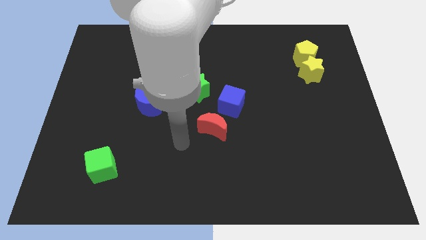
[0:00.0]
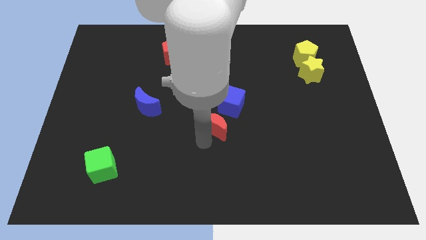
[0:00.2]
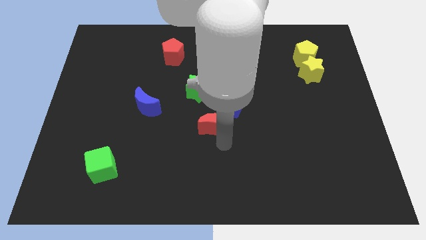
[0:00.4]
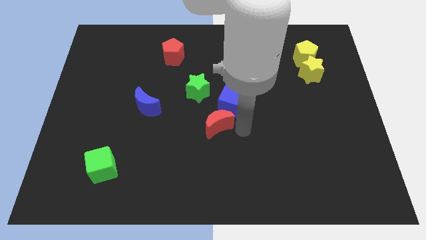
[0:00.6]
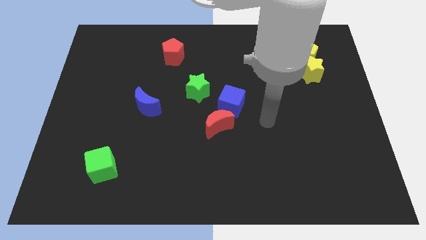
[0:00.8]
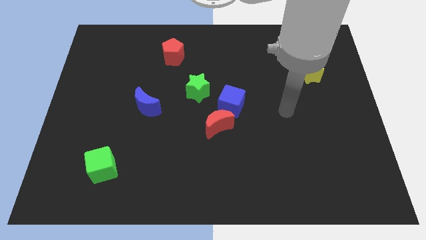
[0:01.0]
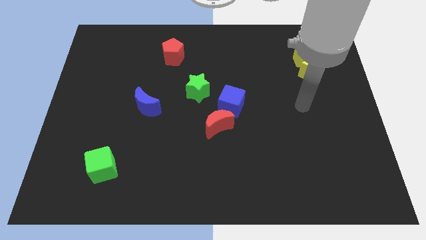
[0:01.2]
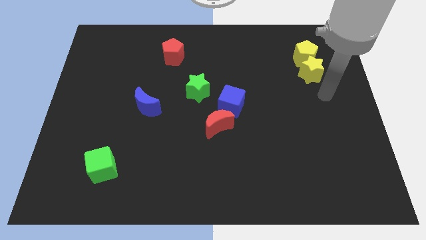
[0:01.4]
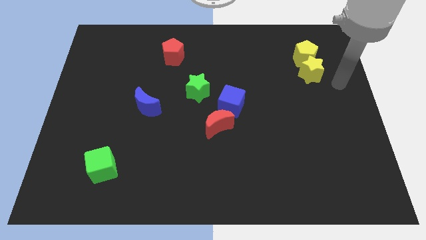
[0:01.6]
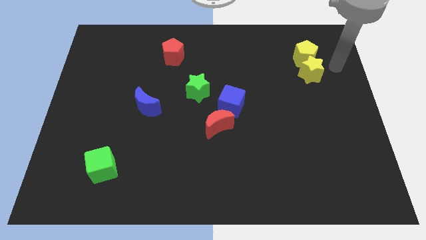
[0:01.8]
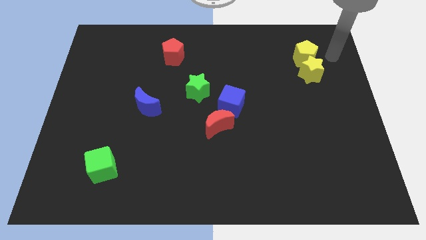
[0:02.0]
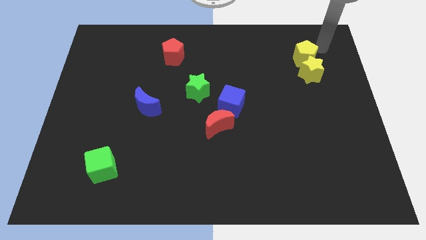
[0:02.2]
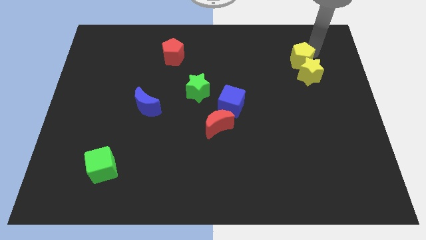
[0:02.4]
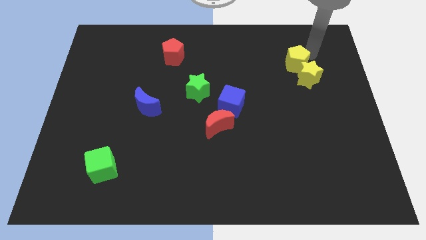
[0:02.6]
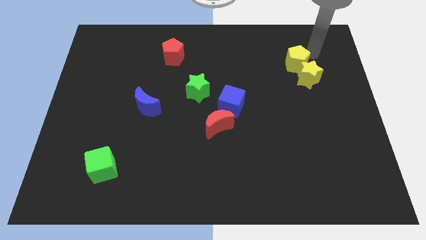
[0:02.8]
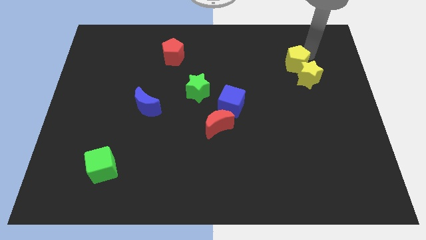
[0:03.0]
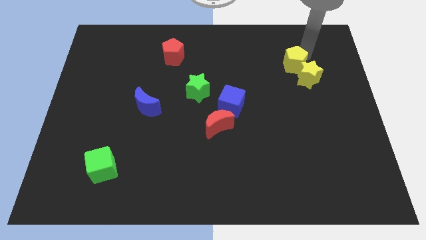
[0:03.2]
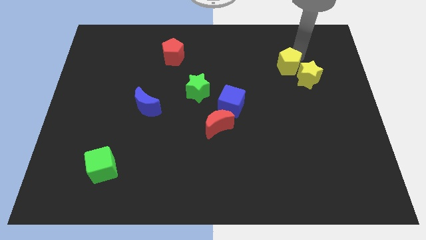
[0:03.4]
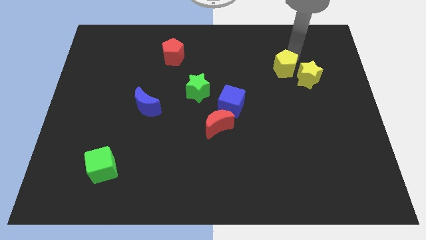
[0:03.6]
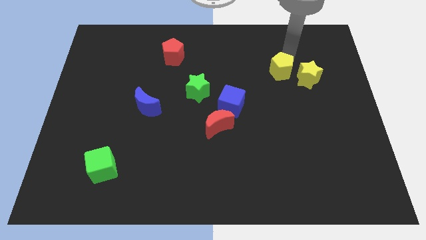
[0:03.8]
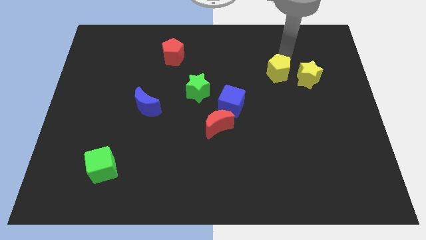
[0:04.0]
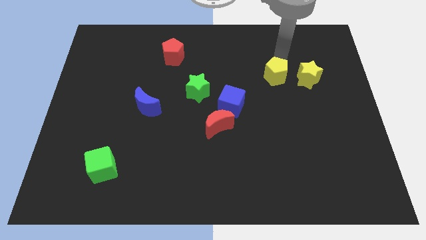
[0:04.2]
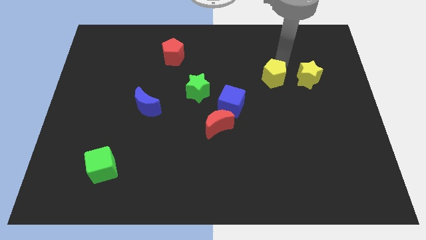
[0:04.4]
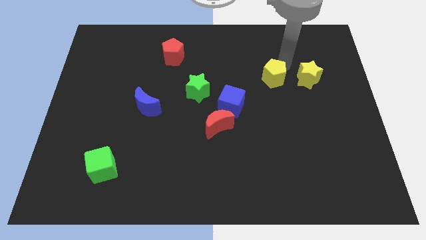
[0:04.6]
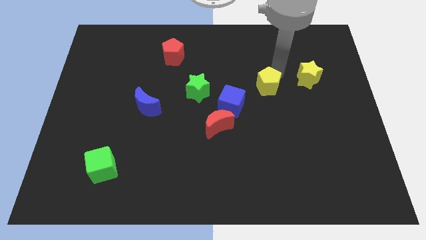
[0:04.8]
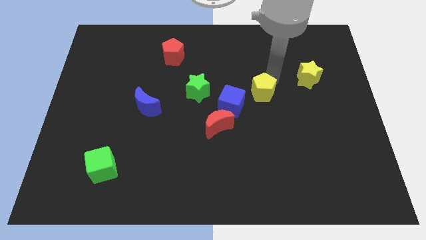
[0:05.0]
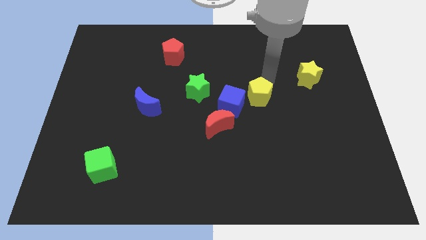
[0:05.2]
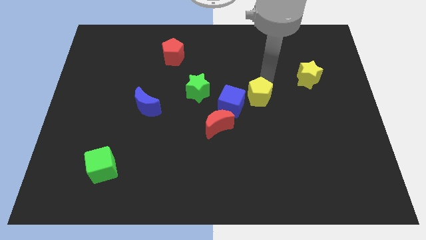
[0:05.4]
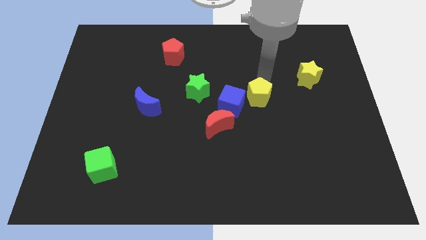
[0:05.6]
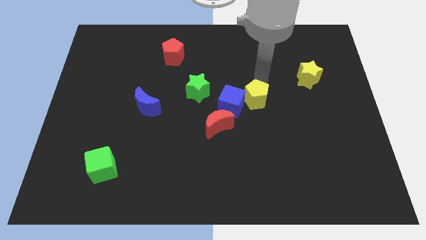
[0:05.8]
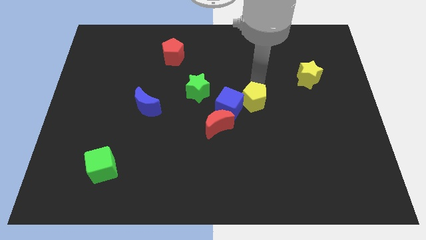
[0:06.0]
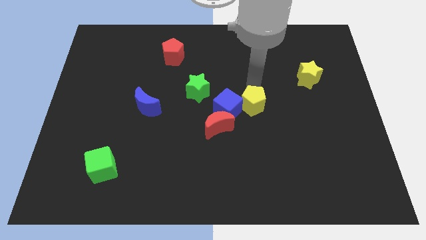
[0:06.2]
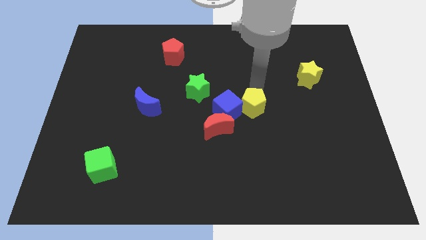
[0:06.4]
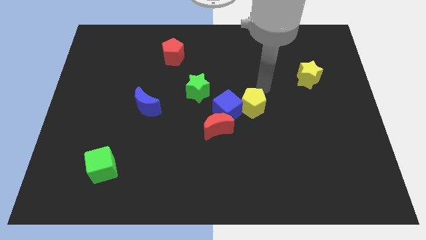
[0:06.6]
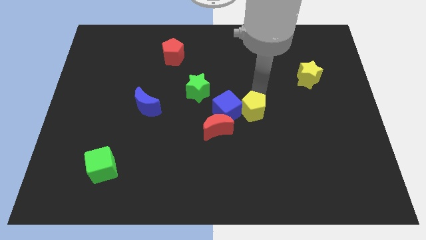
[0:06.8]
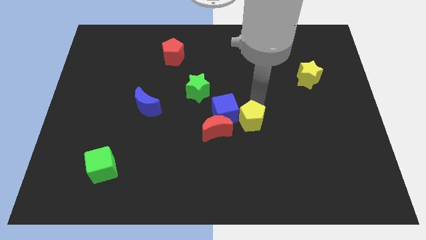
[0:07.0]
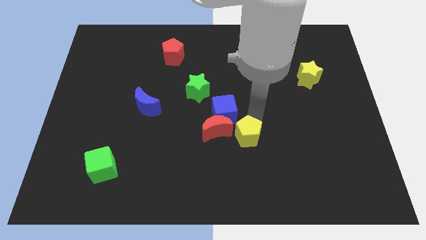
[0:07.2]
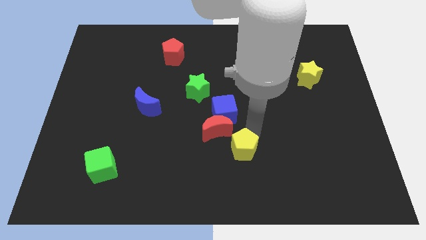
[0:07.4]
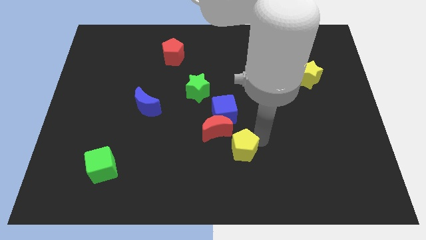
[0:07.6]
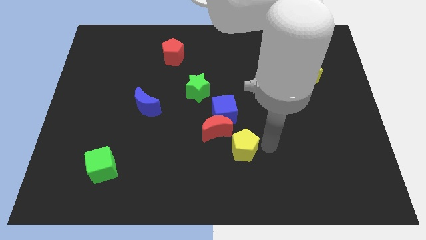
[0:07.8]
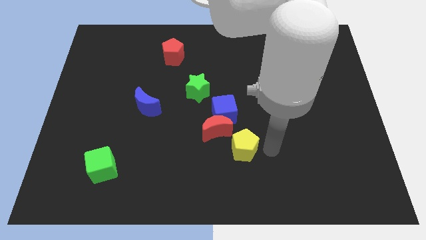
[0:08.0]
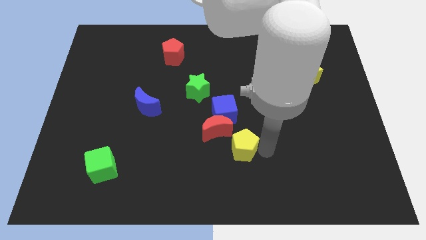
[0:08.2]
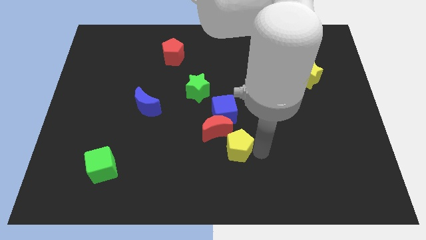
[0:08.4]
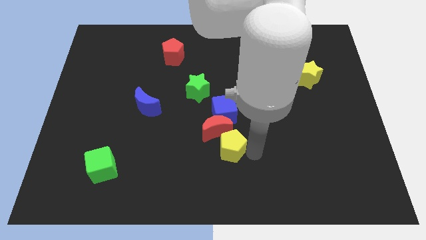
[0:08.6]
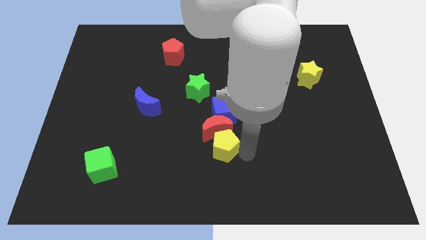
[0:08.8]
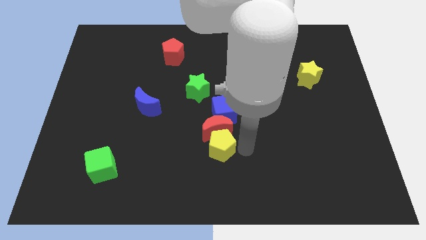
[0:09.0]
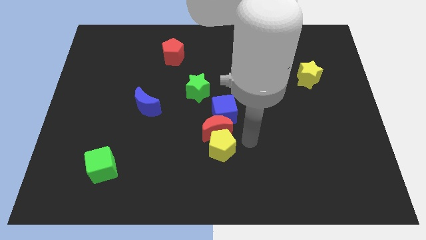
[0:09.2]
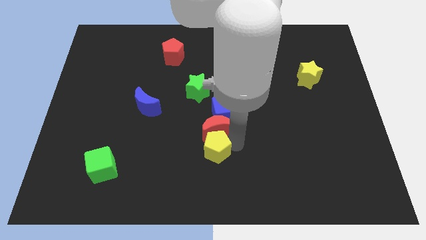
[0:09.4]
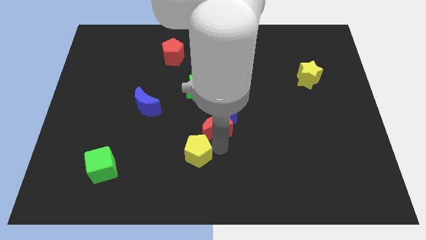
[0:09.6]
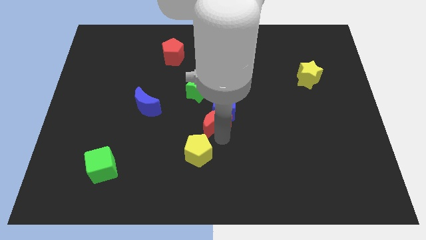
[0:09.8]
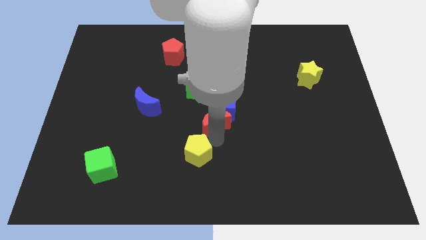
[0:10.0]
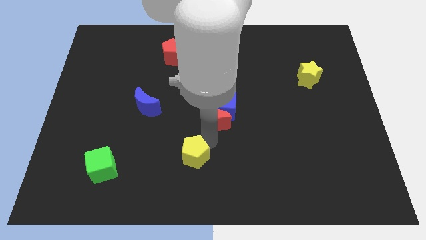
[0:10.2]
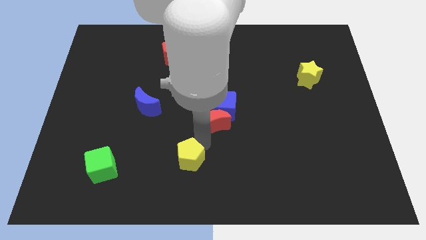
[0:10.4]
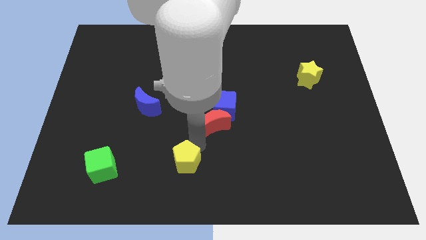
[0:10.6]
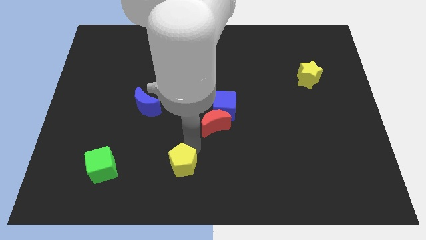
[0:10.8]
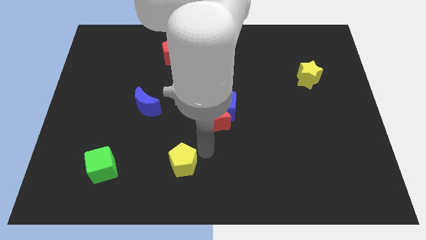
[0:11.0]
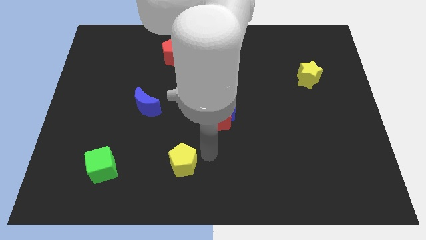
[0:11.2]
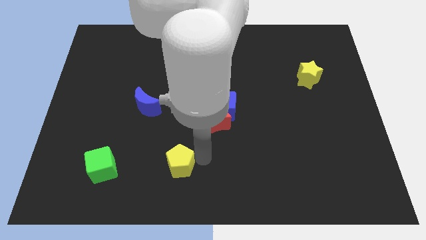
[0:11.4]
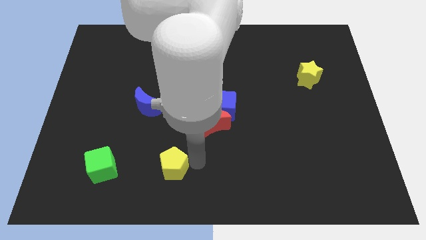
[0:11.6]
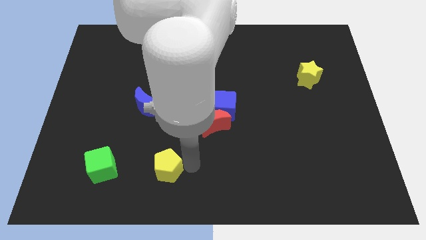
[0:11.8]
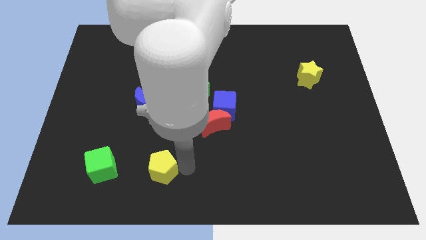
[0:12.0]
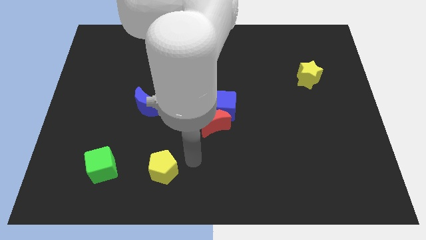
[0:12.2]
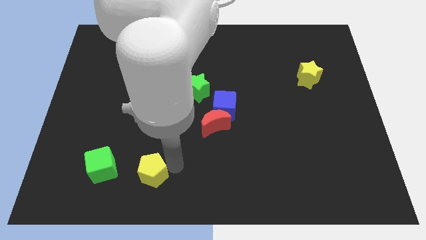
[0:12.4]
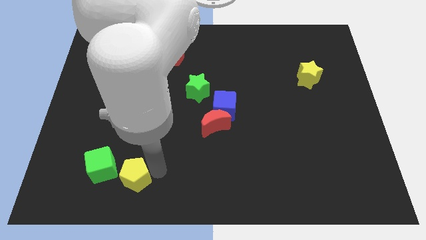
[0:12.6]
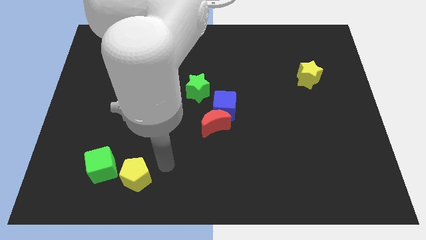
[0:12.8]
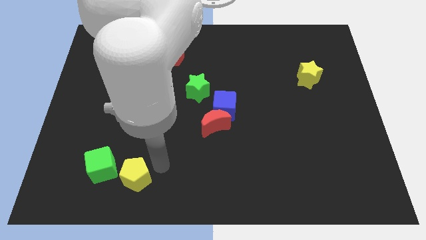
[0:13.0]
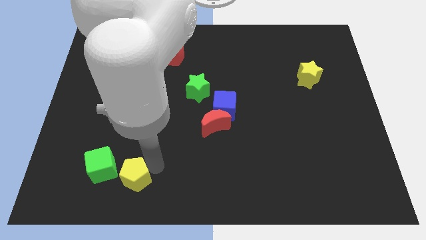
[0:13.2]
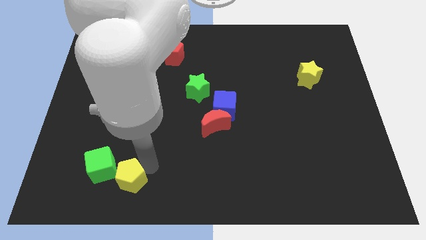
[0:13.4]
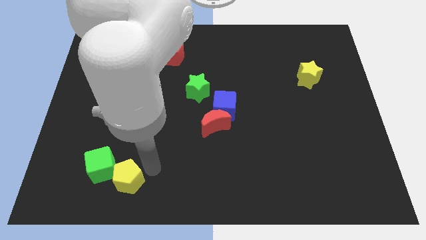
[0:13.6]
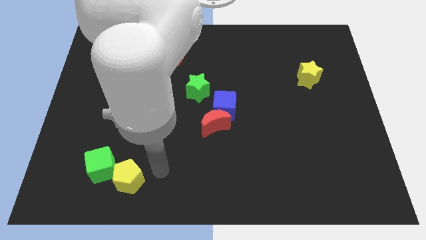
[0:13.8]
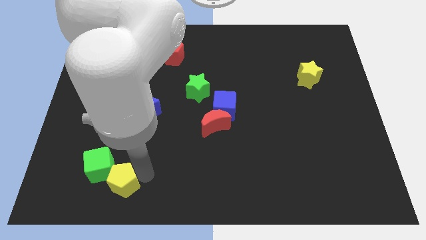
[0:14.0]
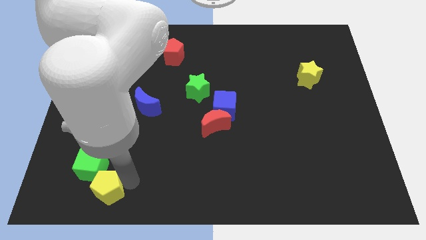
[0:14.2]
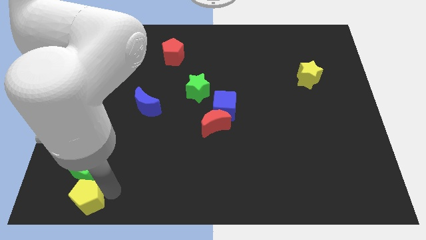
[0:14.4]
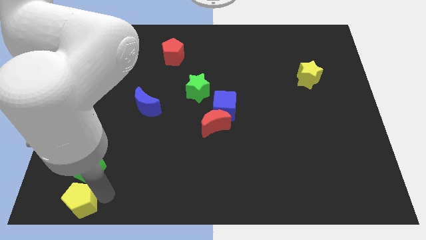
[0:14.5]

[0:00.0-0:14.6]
slide the yellow pentagon to the bottom left of the board
